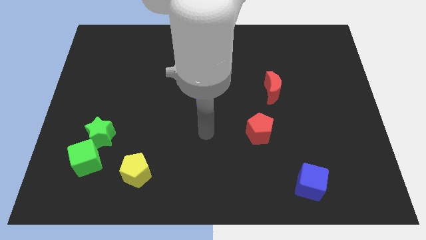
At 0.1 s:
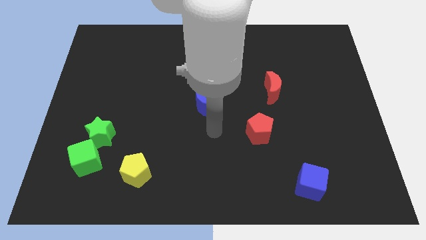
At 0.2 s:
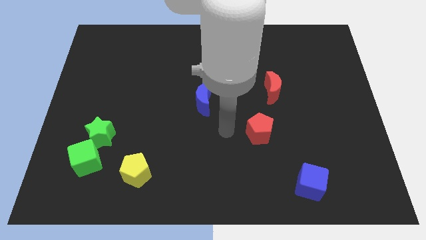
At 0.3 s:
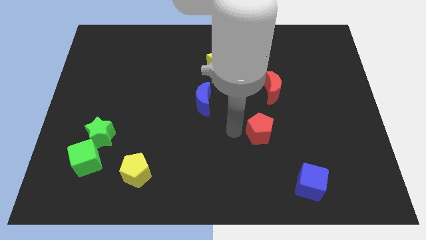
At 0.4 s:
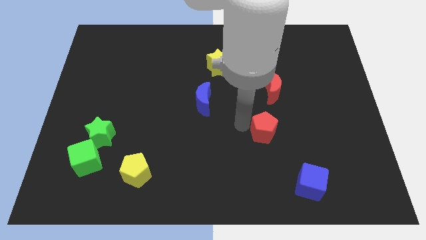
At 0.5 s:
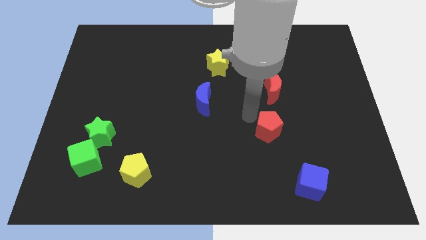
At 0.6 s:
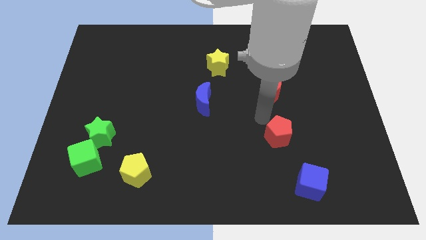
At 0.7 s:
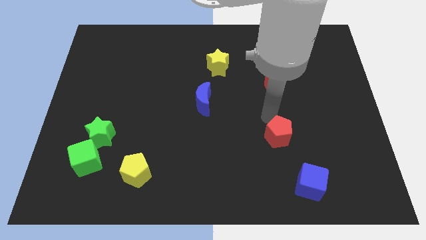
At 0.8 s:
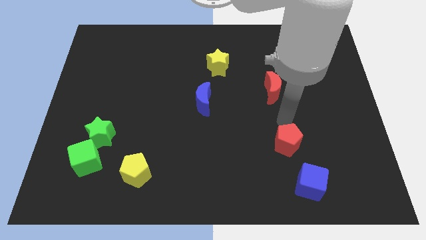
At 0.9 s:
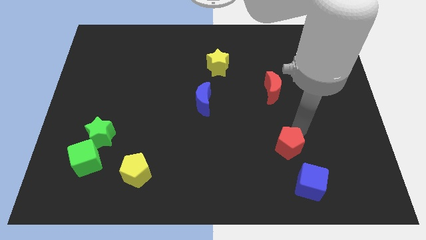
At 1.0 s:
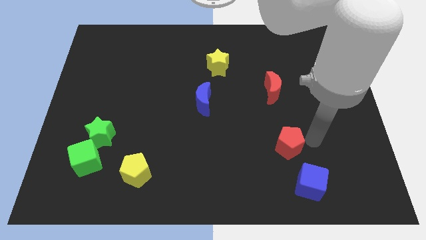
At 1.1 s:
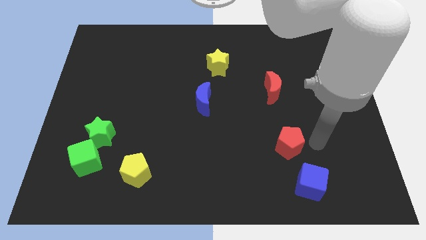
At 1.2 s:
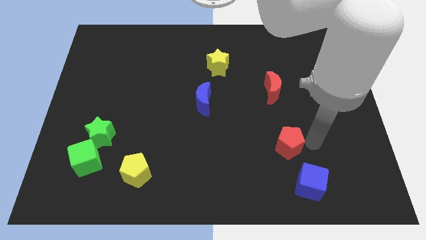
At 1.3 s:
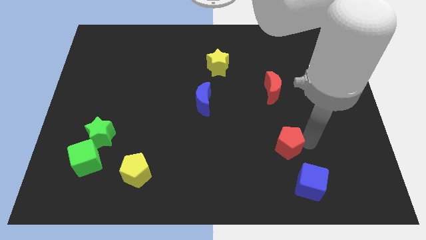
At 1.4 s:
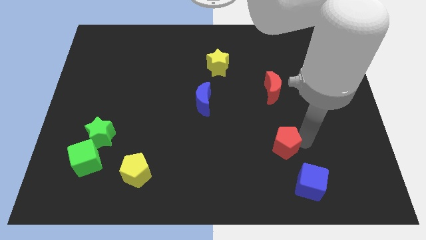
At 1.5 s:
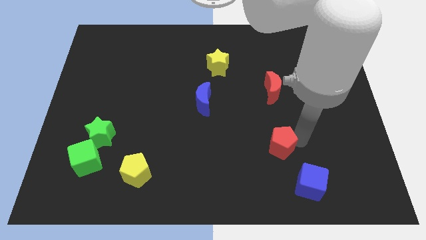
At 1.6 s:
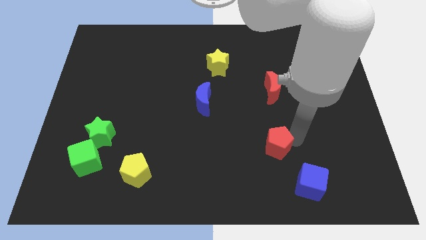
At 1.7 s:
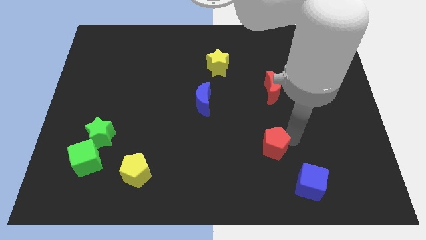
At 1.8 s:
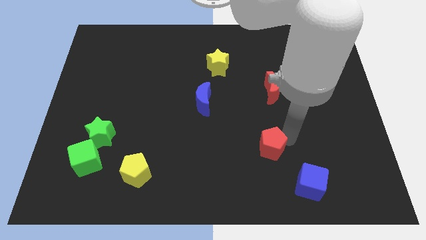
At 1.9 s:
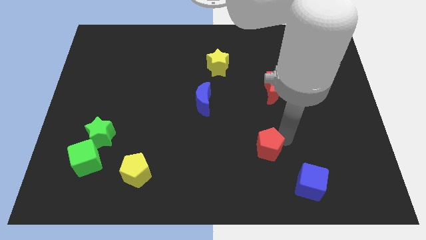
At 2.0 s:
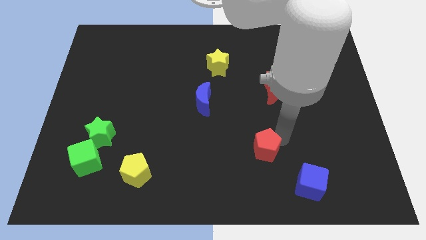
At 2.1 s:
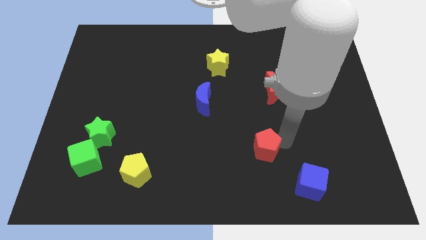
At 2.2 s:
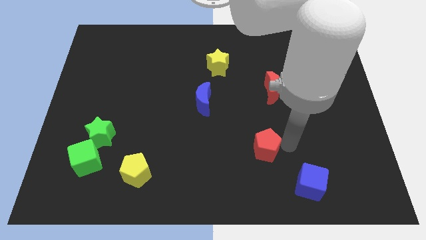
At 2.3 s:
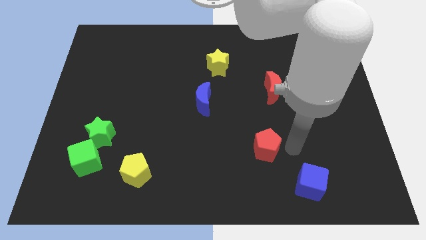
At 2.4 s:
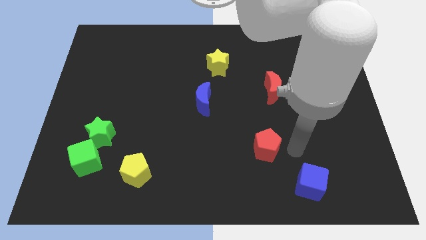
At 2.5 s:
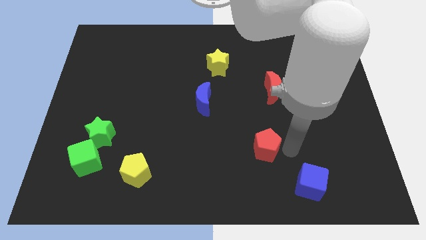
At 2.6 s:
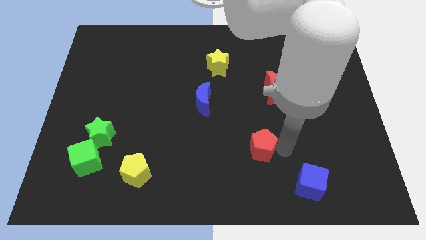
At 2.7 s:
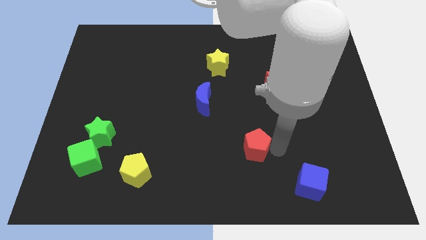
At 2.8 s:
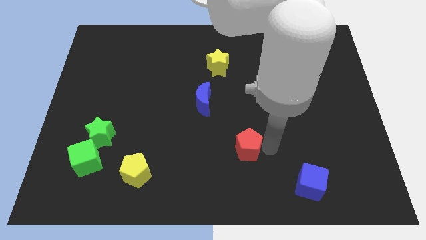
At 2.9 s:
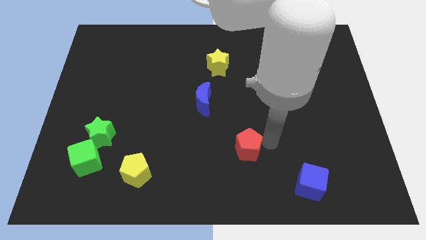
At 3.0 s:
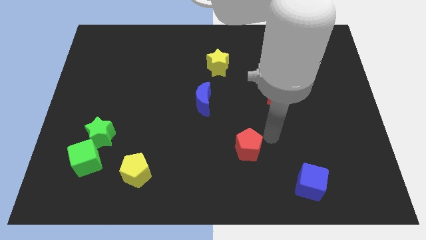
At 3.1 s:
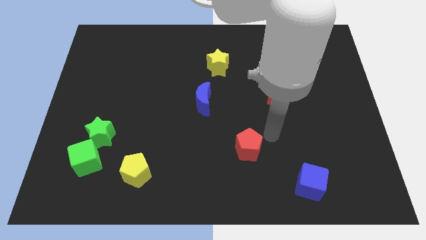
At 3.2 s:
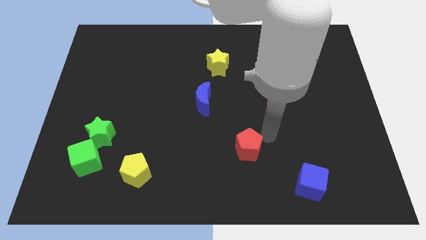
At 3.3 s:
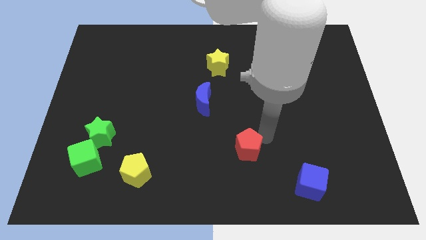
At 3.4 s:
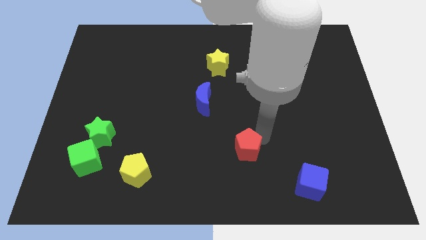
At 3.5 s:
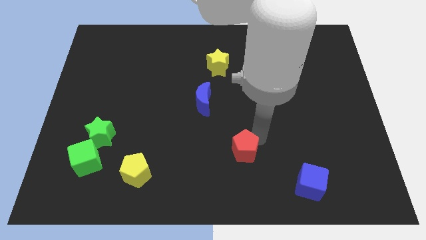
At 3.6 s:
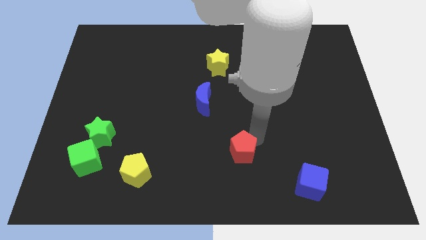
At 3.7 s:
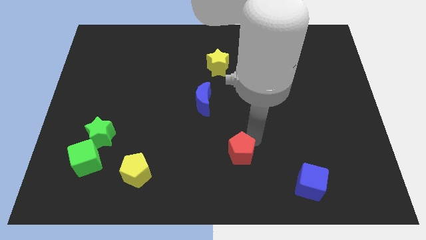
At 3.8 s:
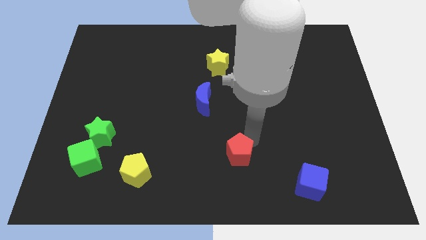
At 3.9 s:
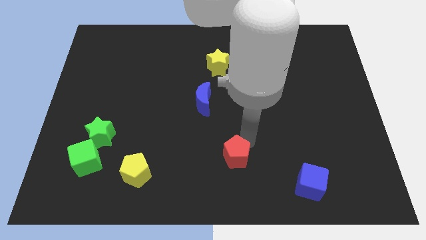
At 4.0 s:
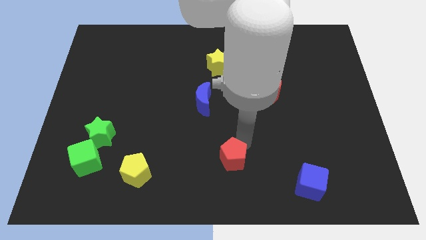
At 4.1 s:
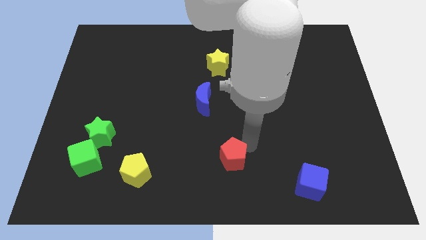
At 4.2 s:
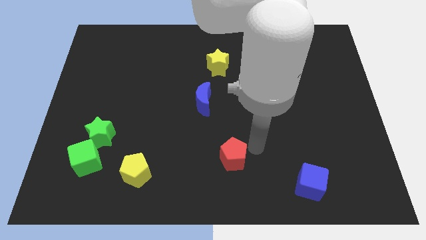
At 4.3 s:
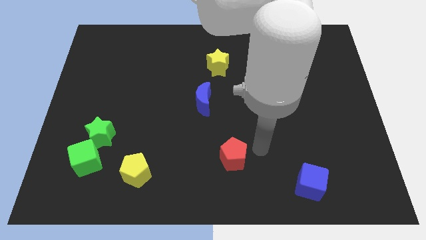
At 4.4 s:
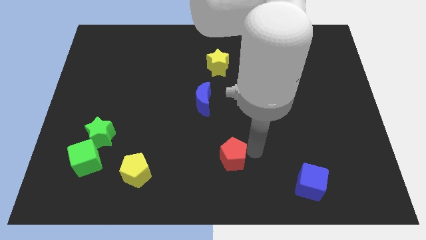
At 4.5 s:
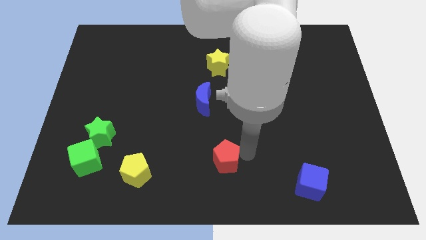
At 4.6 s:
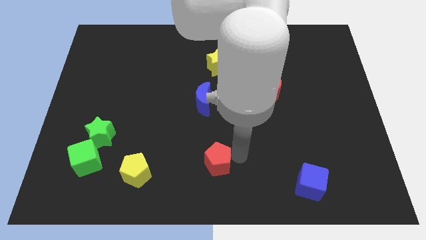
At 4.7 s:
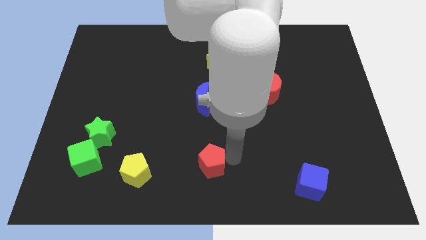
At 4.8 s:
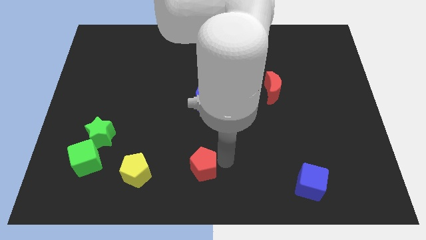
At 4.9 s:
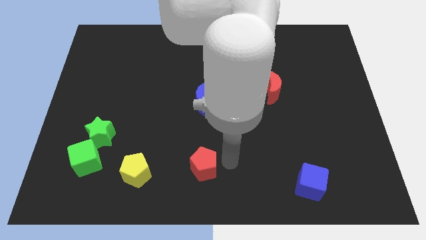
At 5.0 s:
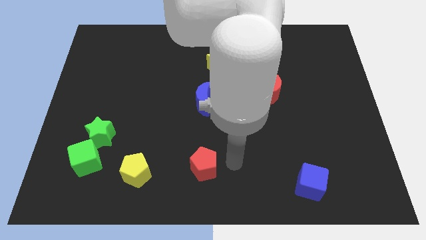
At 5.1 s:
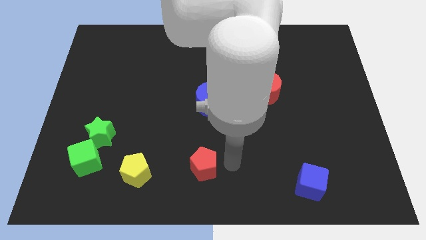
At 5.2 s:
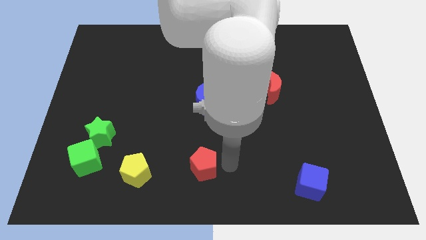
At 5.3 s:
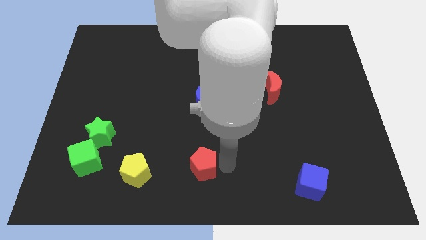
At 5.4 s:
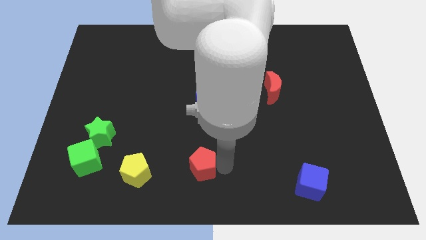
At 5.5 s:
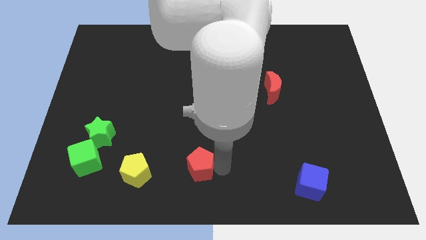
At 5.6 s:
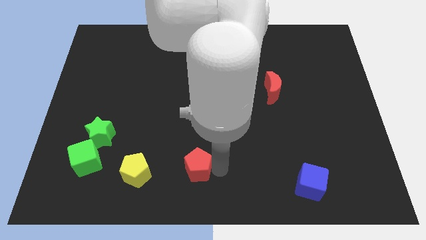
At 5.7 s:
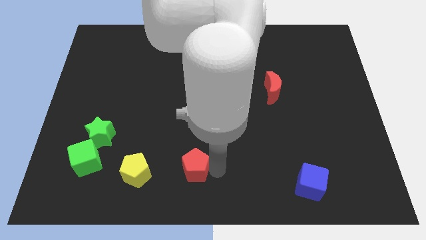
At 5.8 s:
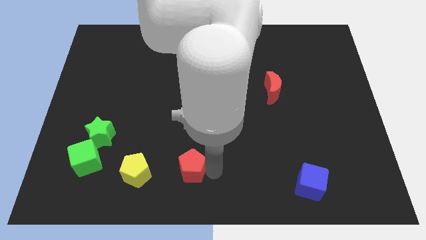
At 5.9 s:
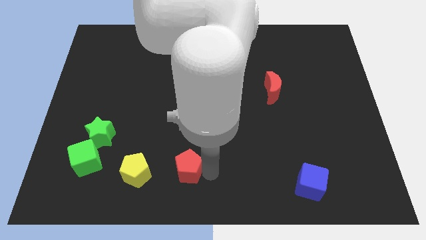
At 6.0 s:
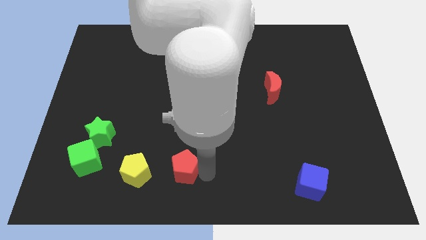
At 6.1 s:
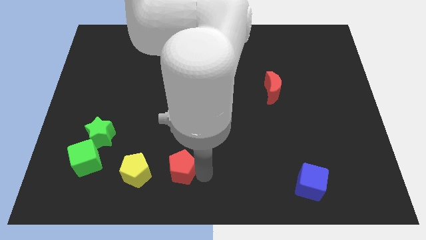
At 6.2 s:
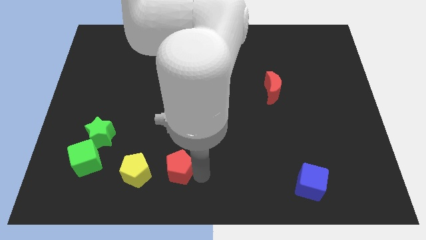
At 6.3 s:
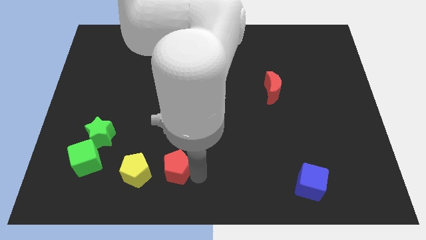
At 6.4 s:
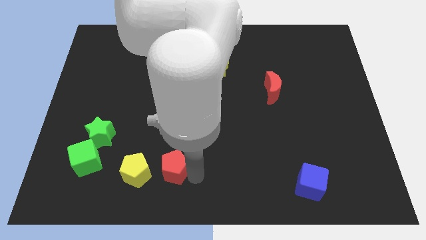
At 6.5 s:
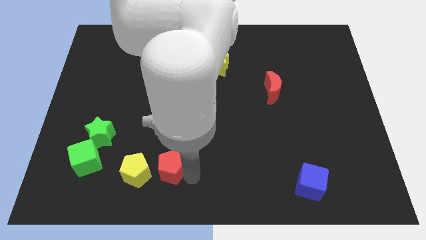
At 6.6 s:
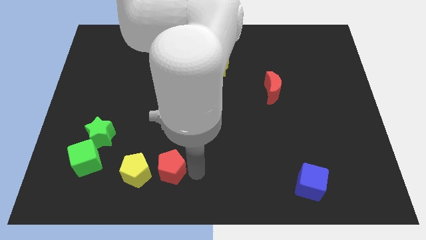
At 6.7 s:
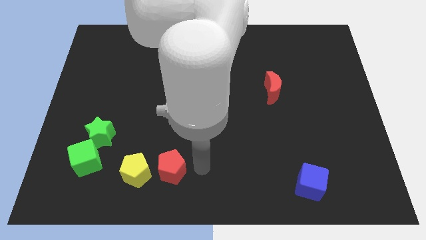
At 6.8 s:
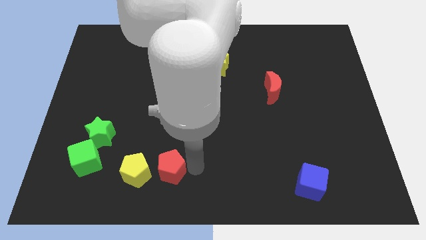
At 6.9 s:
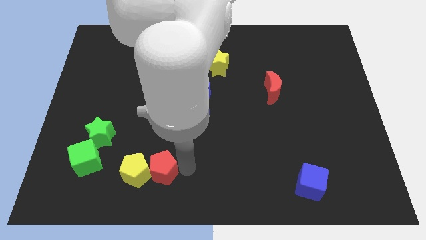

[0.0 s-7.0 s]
push the red pentagon next to the yellow pentagon
